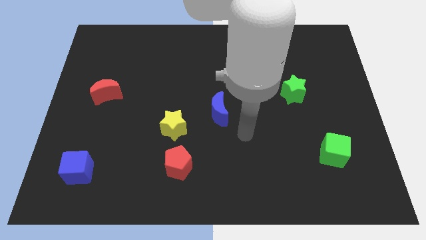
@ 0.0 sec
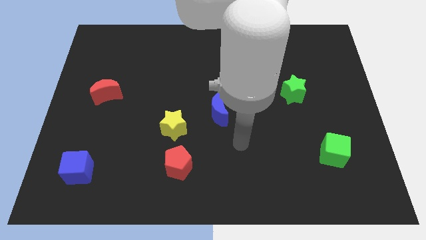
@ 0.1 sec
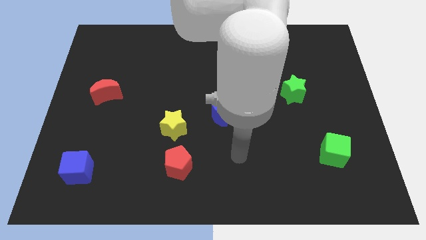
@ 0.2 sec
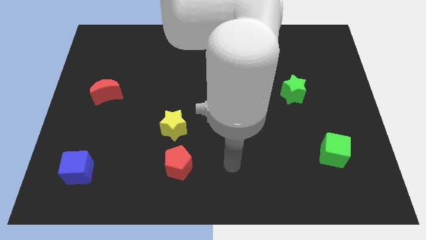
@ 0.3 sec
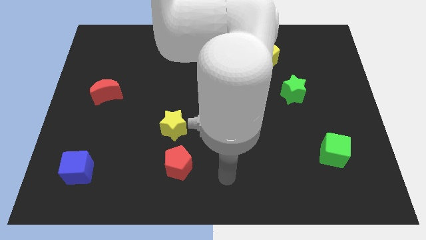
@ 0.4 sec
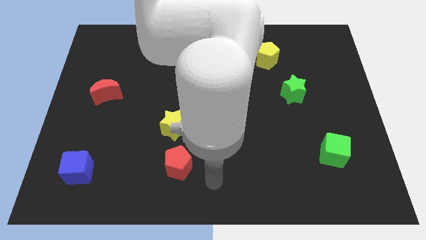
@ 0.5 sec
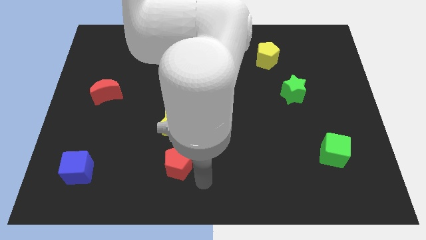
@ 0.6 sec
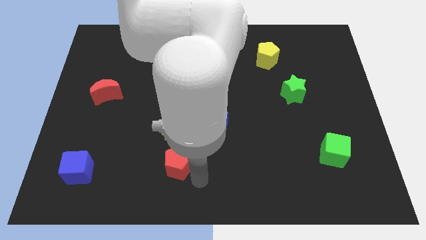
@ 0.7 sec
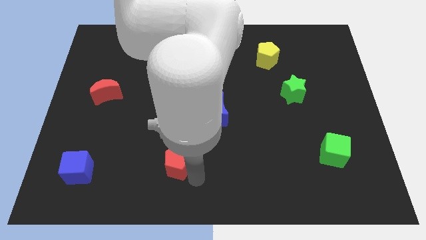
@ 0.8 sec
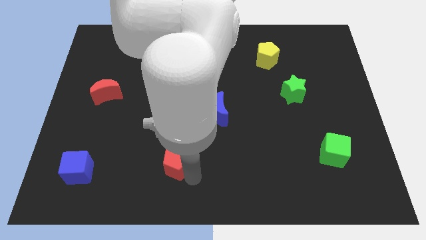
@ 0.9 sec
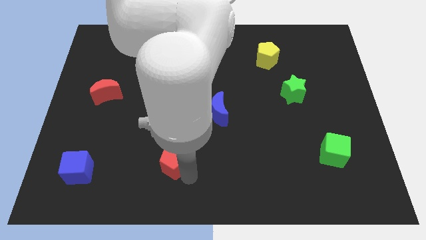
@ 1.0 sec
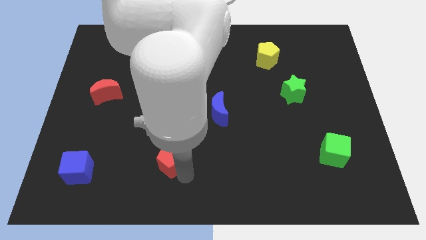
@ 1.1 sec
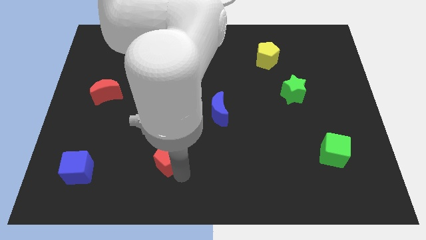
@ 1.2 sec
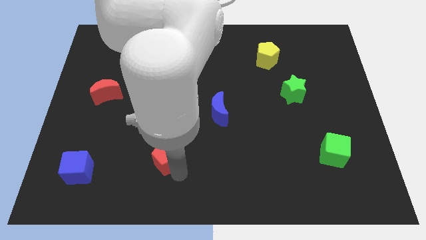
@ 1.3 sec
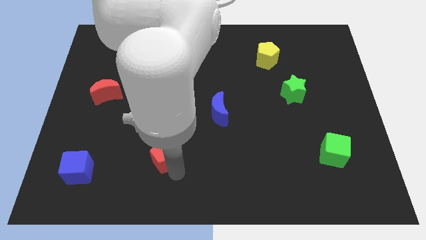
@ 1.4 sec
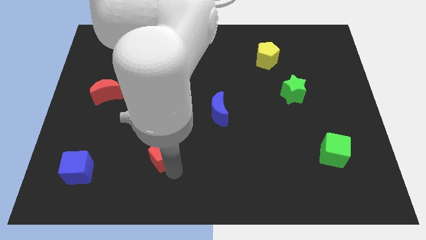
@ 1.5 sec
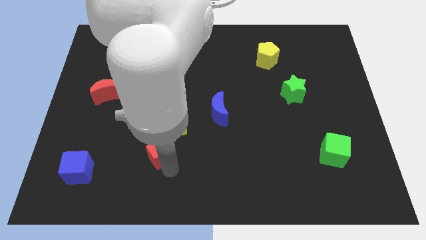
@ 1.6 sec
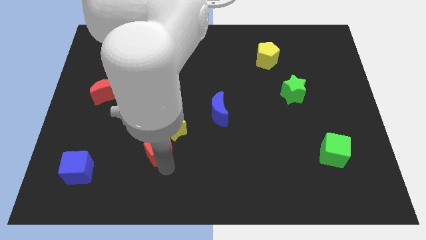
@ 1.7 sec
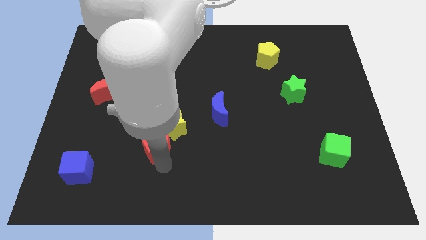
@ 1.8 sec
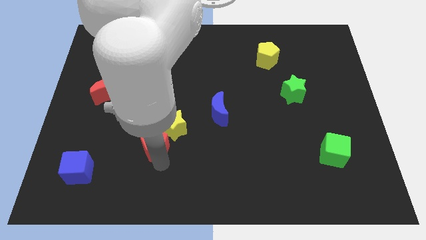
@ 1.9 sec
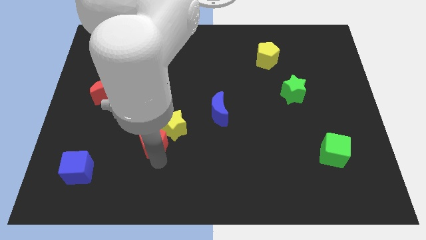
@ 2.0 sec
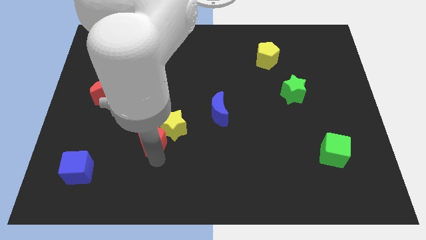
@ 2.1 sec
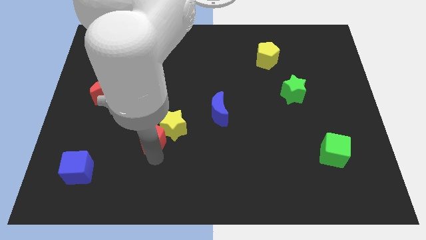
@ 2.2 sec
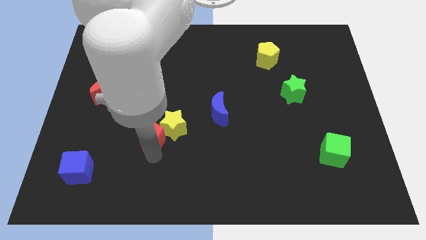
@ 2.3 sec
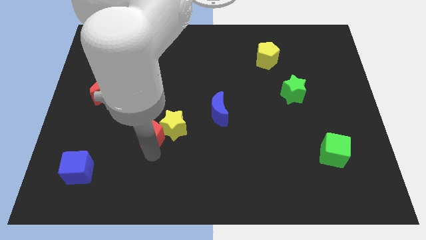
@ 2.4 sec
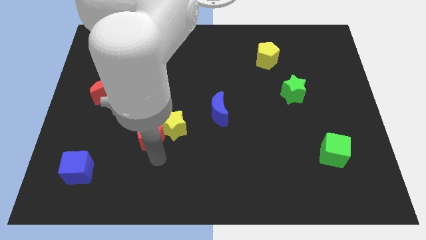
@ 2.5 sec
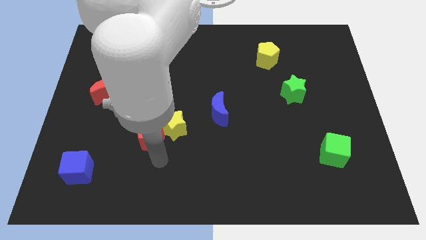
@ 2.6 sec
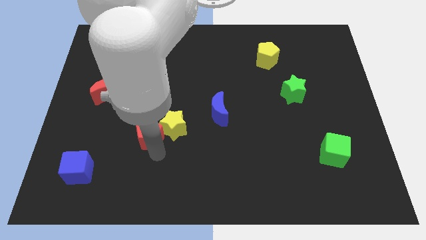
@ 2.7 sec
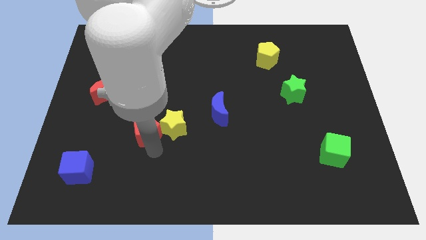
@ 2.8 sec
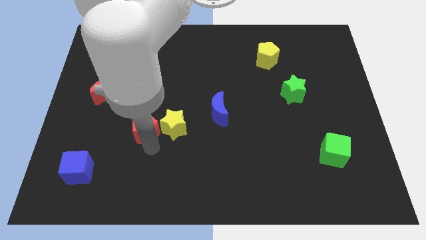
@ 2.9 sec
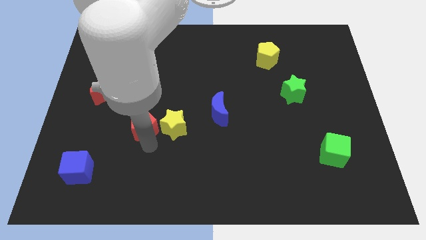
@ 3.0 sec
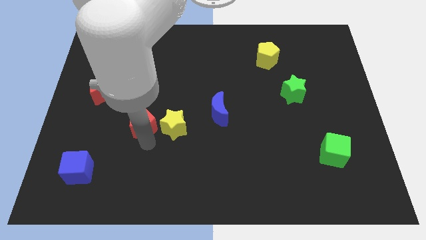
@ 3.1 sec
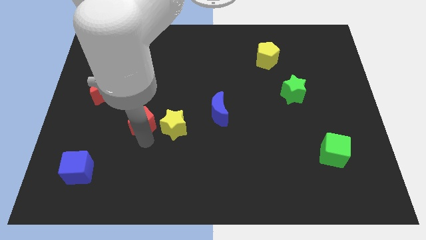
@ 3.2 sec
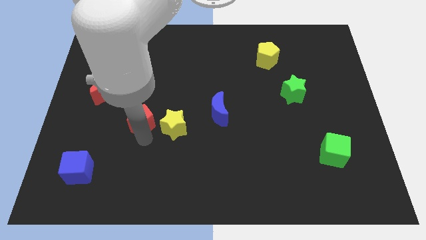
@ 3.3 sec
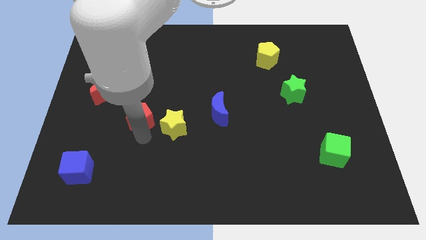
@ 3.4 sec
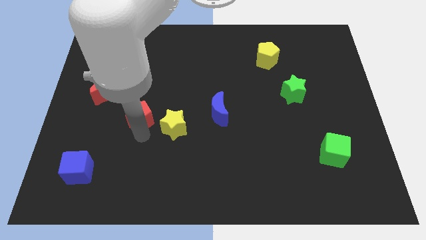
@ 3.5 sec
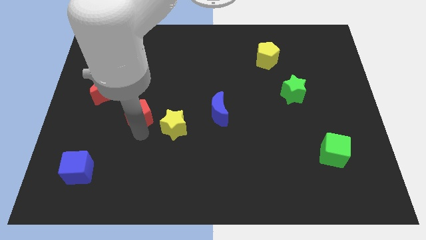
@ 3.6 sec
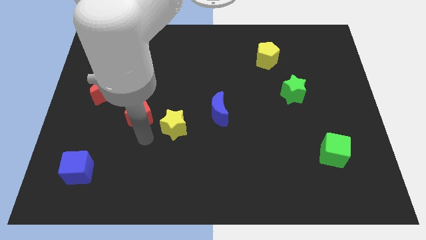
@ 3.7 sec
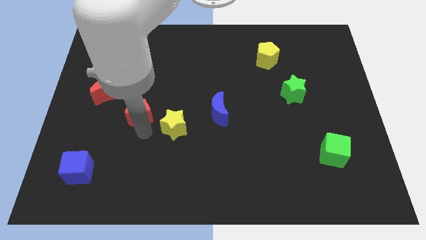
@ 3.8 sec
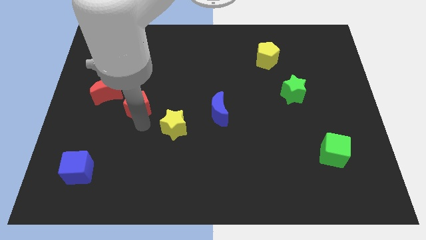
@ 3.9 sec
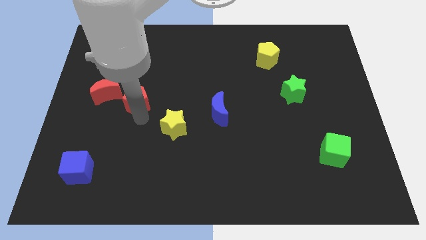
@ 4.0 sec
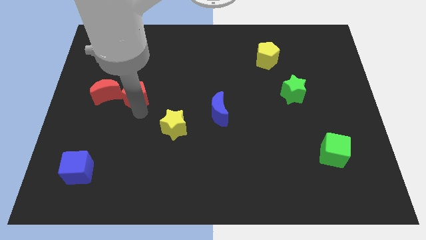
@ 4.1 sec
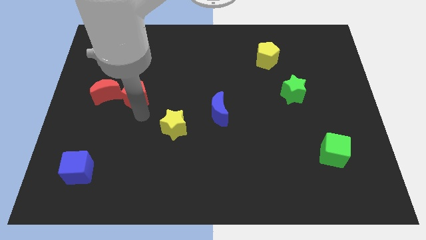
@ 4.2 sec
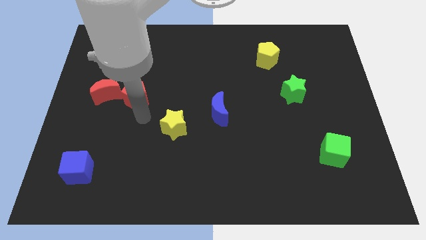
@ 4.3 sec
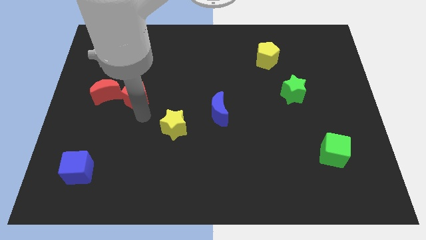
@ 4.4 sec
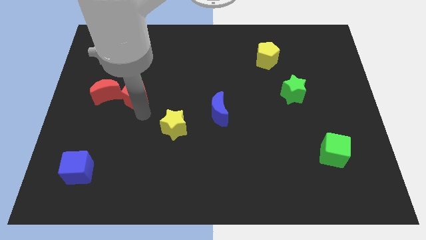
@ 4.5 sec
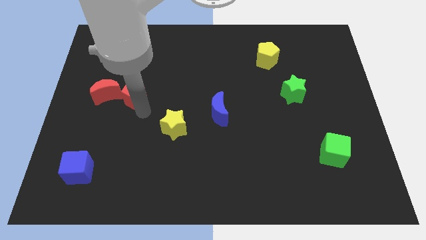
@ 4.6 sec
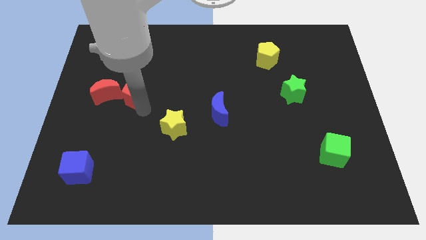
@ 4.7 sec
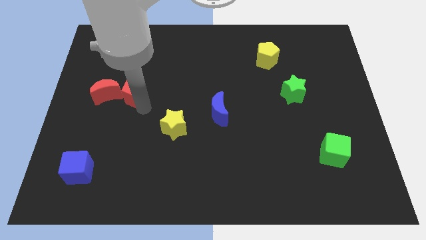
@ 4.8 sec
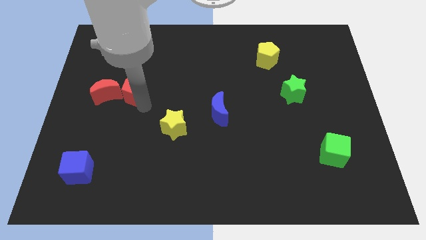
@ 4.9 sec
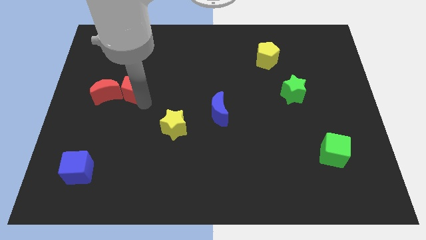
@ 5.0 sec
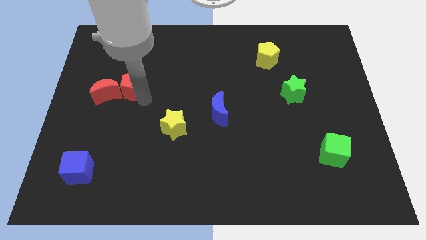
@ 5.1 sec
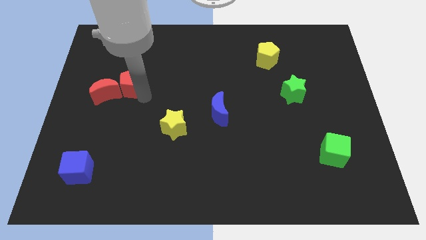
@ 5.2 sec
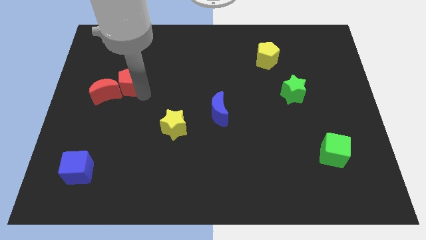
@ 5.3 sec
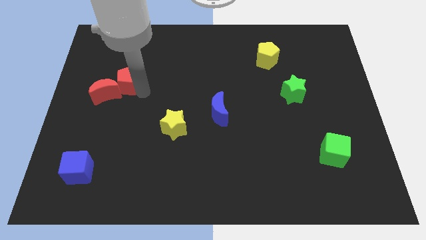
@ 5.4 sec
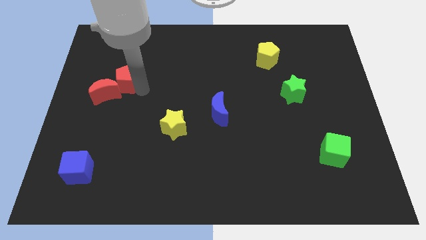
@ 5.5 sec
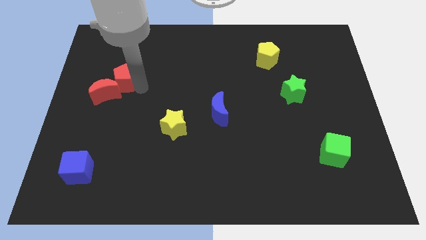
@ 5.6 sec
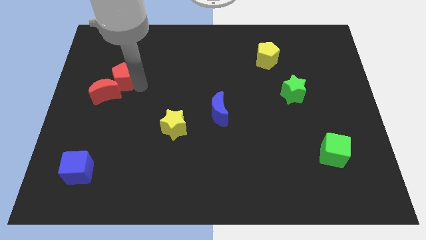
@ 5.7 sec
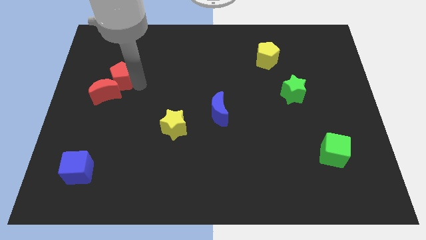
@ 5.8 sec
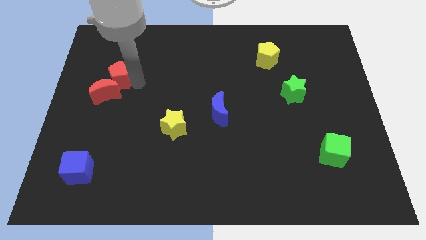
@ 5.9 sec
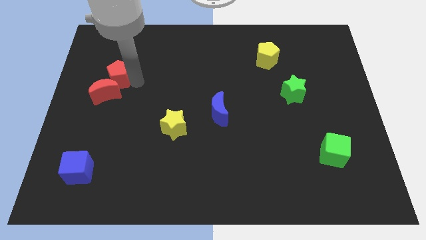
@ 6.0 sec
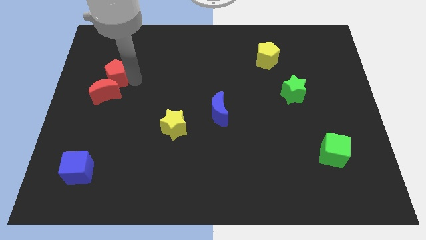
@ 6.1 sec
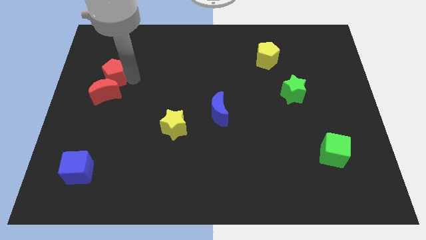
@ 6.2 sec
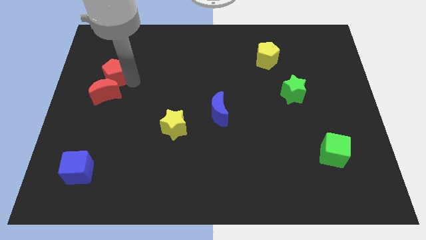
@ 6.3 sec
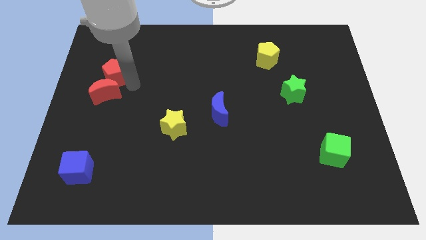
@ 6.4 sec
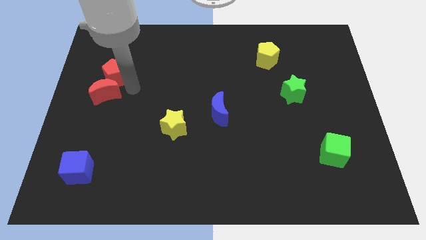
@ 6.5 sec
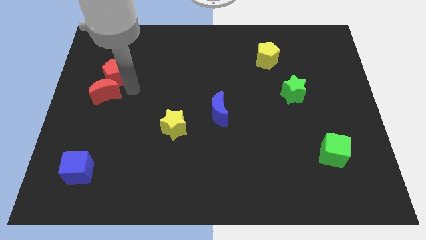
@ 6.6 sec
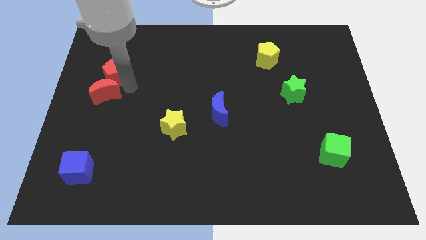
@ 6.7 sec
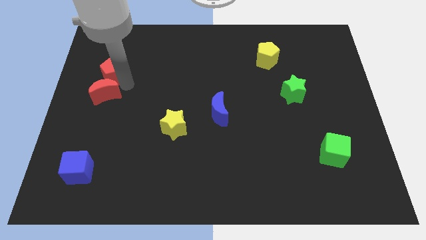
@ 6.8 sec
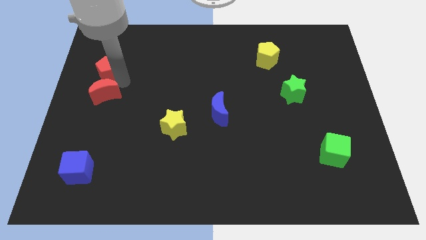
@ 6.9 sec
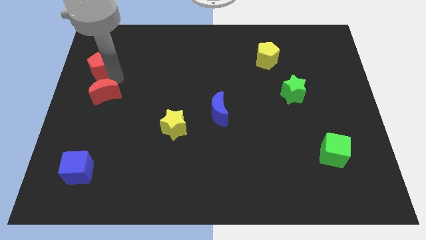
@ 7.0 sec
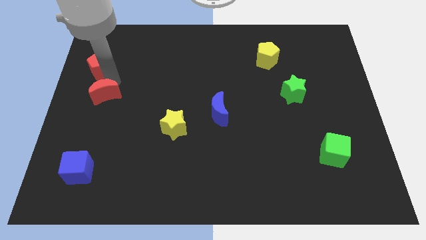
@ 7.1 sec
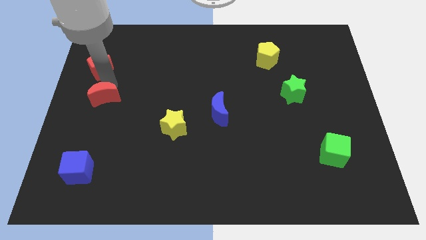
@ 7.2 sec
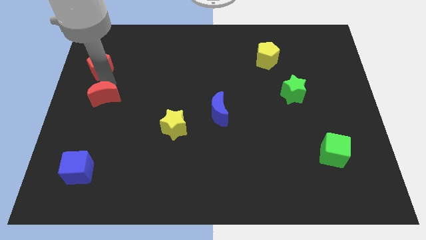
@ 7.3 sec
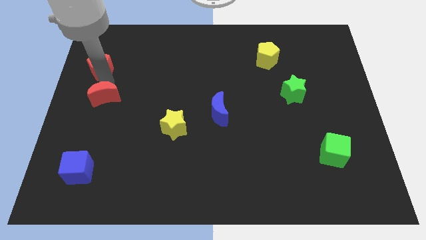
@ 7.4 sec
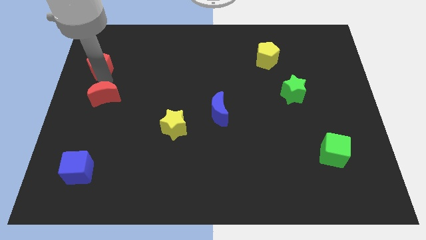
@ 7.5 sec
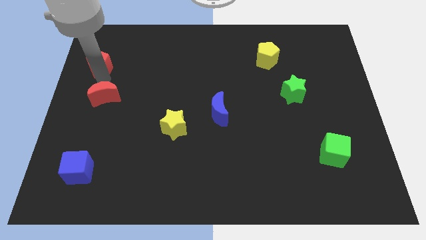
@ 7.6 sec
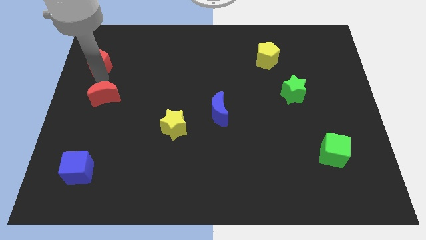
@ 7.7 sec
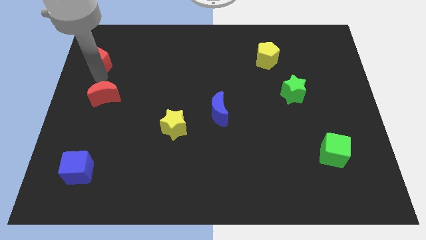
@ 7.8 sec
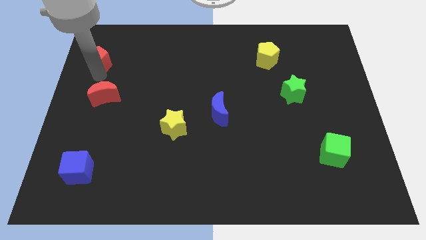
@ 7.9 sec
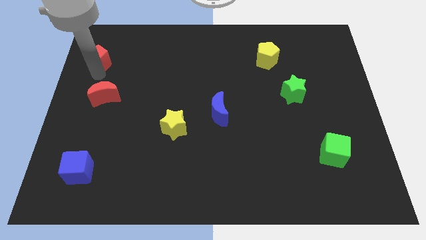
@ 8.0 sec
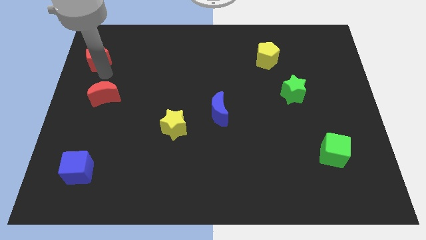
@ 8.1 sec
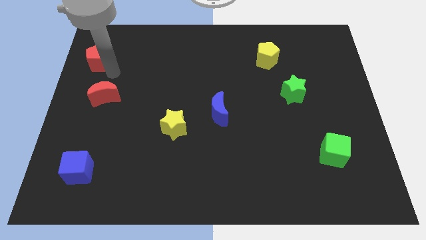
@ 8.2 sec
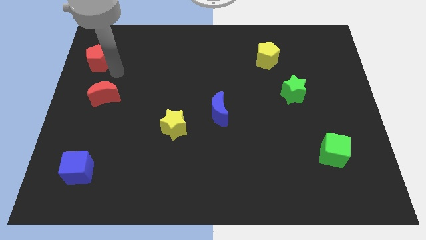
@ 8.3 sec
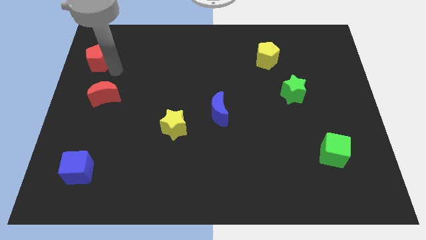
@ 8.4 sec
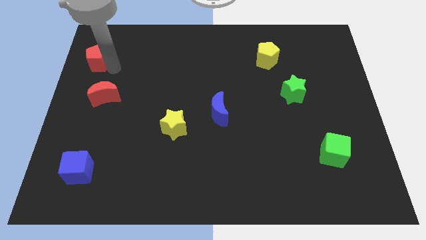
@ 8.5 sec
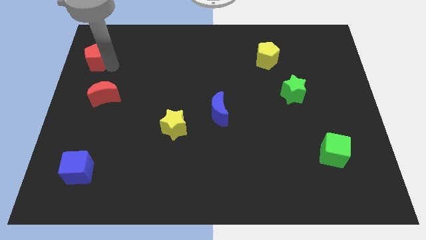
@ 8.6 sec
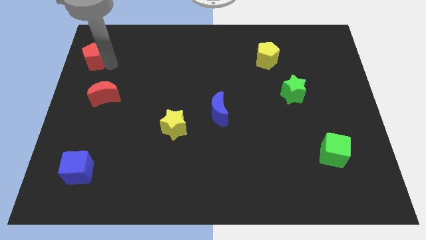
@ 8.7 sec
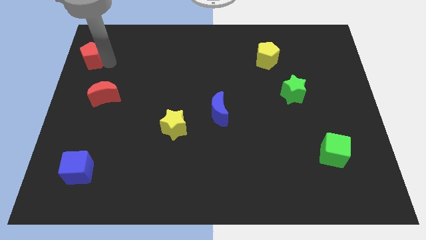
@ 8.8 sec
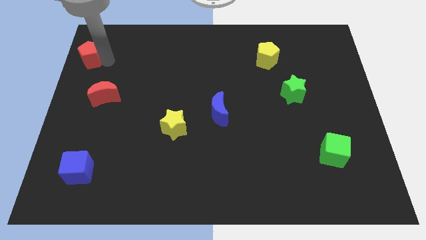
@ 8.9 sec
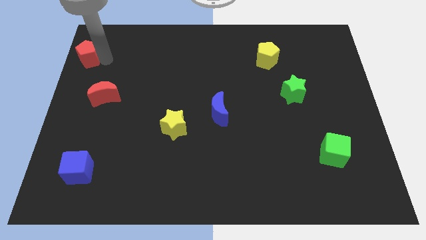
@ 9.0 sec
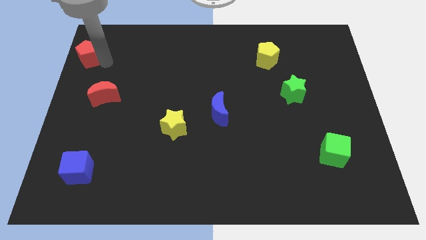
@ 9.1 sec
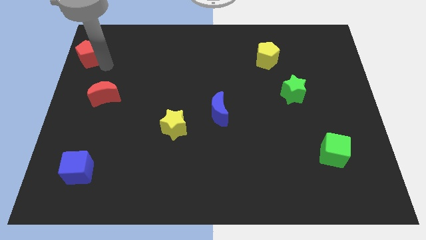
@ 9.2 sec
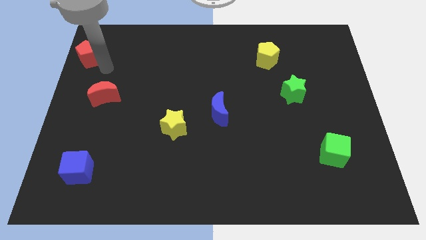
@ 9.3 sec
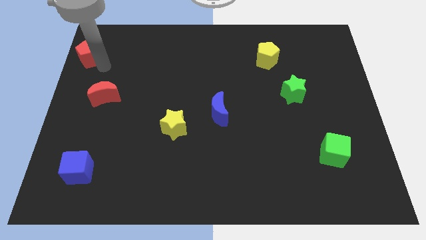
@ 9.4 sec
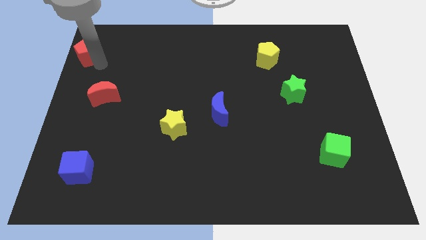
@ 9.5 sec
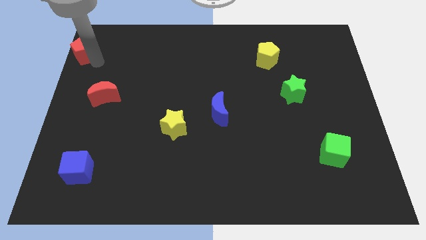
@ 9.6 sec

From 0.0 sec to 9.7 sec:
put the red pentagon to the upper left corner
